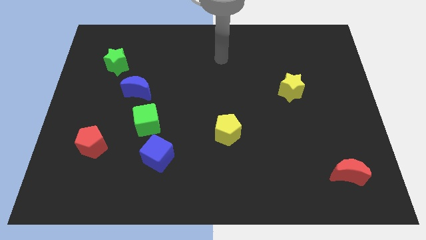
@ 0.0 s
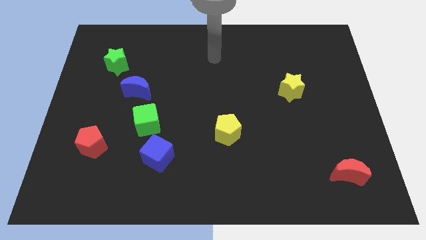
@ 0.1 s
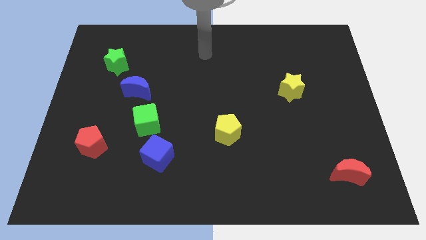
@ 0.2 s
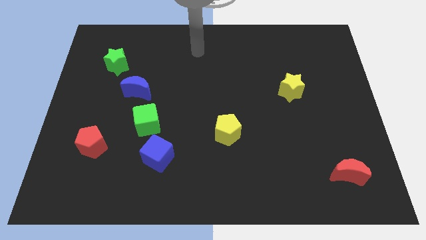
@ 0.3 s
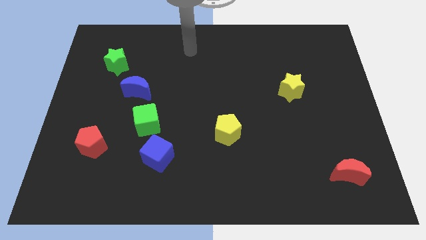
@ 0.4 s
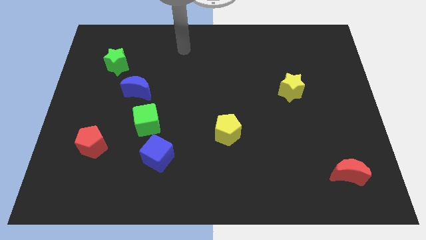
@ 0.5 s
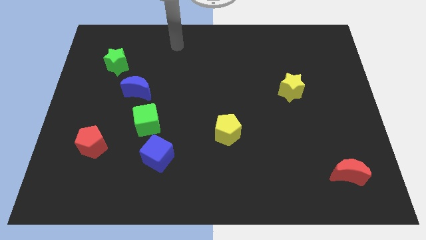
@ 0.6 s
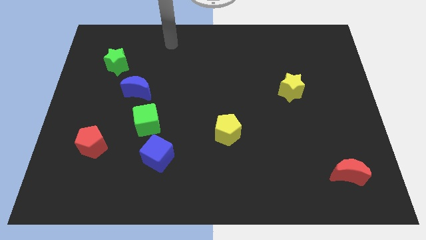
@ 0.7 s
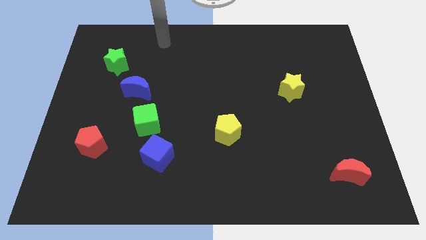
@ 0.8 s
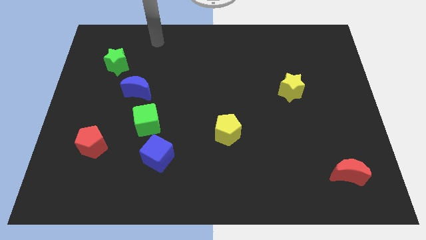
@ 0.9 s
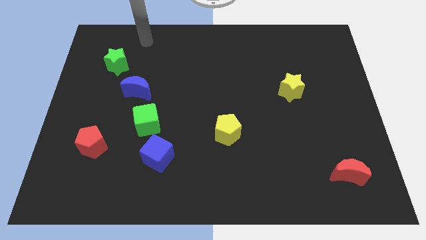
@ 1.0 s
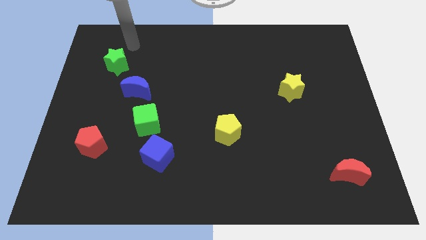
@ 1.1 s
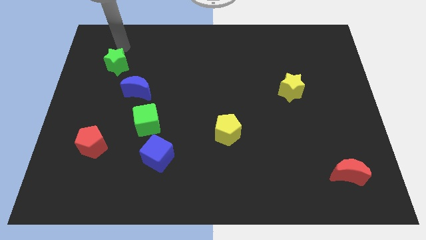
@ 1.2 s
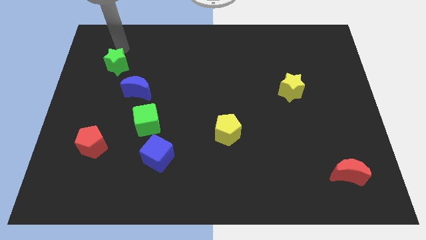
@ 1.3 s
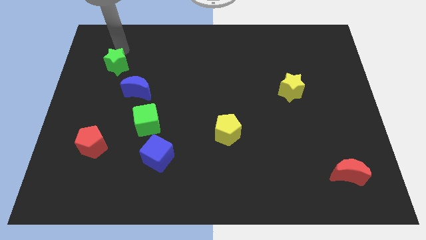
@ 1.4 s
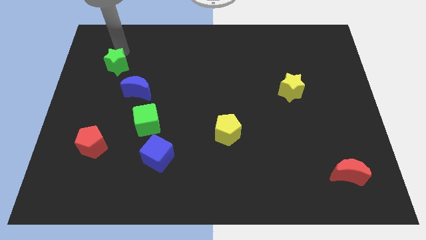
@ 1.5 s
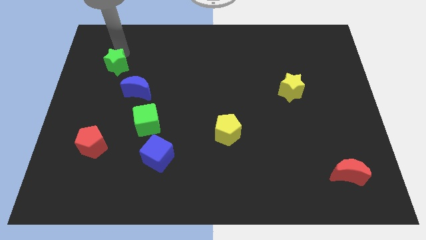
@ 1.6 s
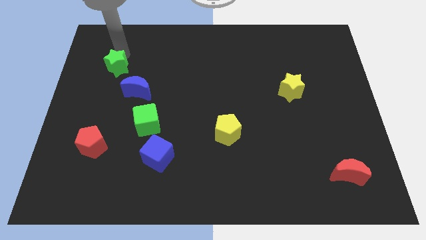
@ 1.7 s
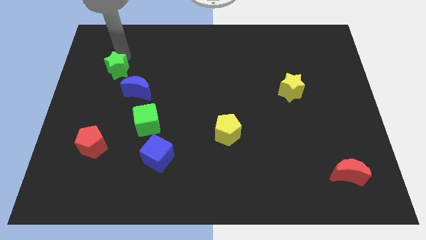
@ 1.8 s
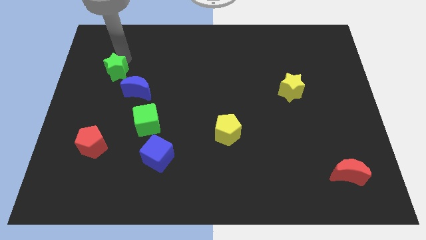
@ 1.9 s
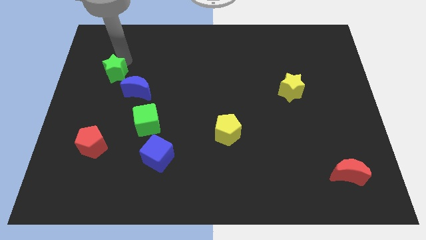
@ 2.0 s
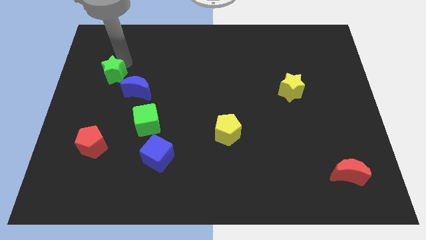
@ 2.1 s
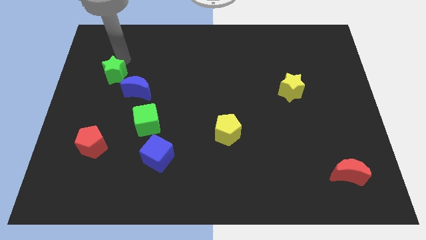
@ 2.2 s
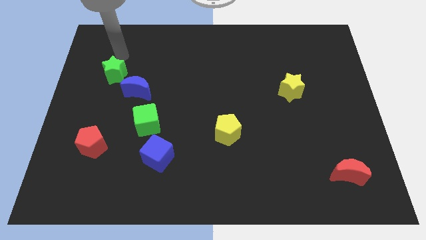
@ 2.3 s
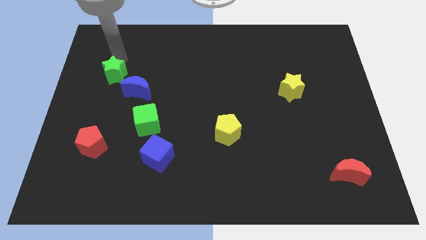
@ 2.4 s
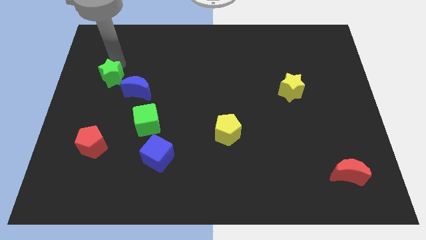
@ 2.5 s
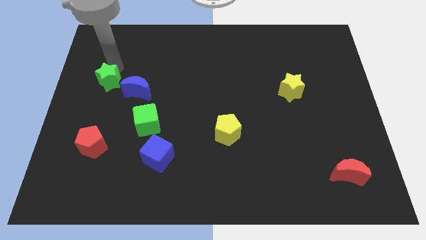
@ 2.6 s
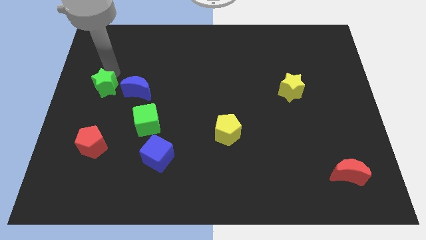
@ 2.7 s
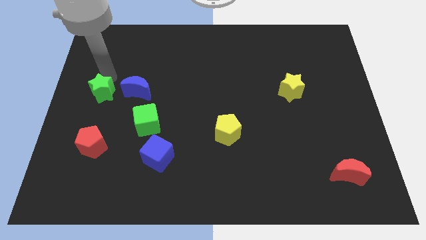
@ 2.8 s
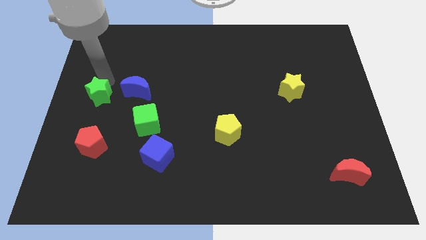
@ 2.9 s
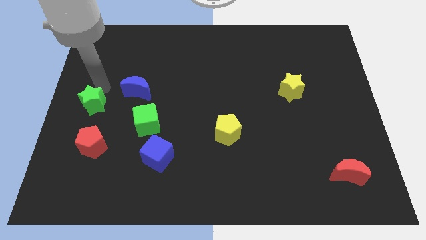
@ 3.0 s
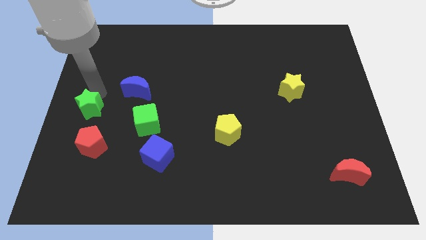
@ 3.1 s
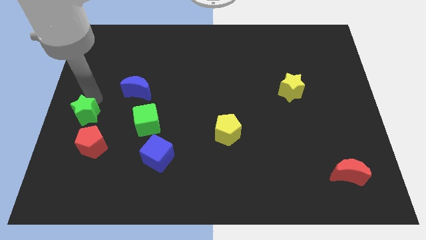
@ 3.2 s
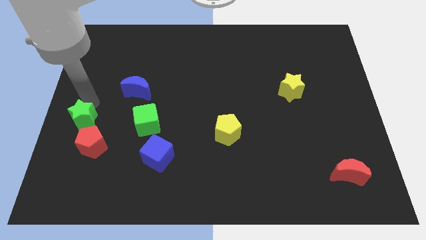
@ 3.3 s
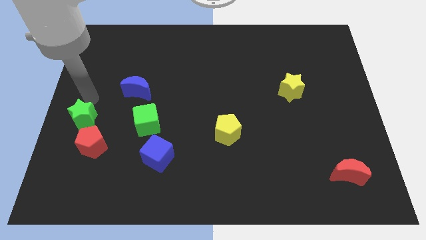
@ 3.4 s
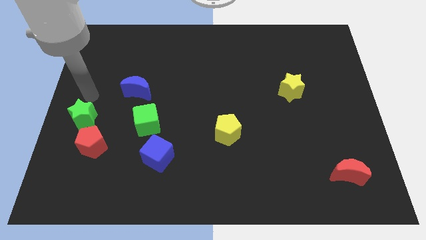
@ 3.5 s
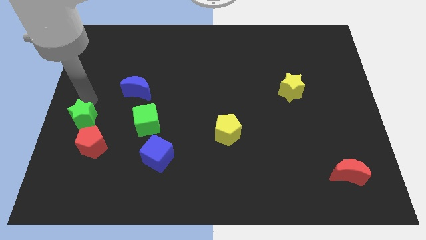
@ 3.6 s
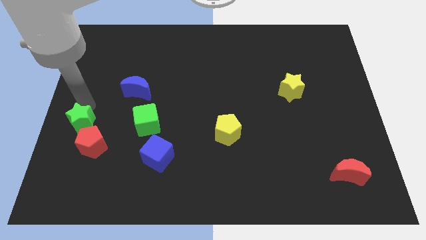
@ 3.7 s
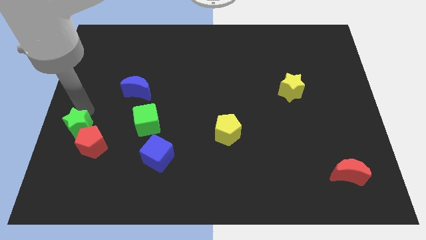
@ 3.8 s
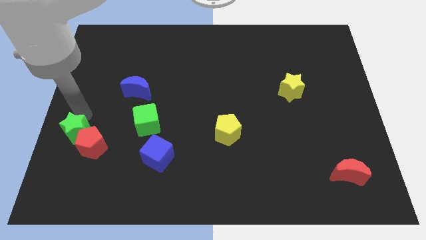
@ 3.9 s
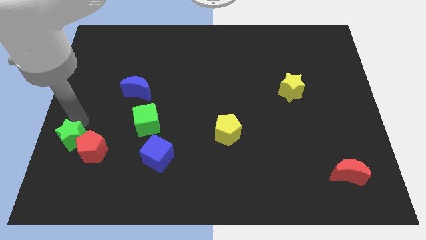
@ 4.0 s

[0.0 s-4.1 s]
move the green star downwards

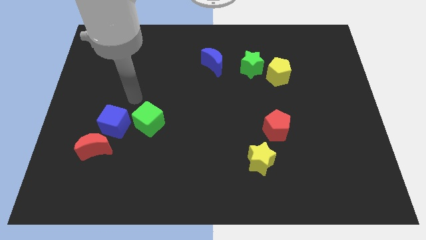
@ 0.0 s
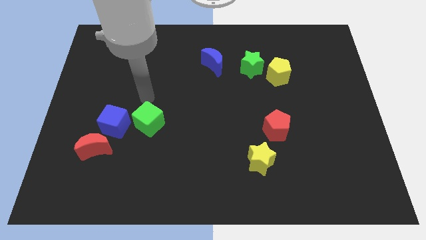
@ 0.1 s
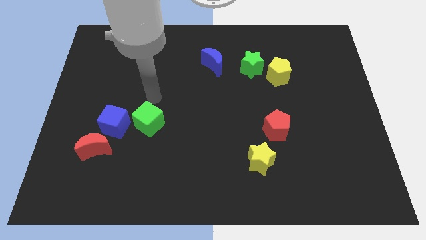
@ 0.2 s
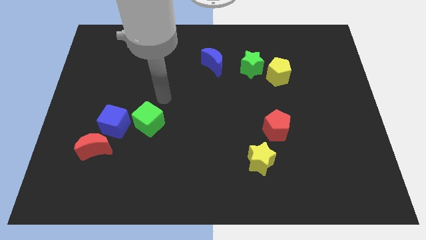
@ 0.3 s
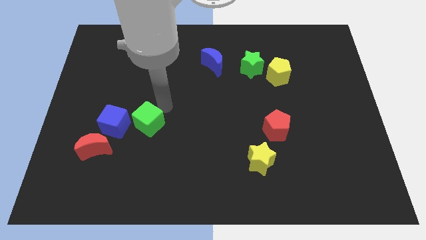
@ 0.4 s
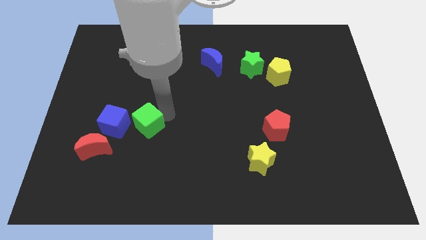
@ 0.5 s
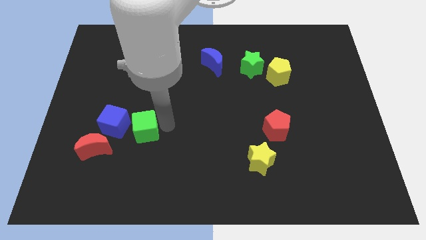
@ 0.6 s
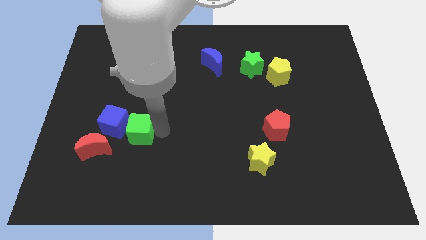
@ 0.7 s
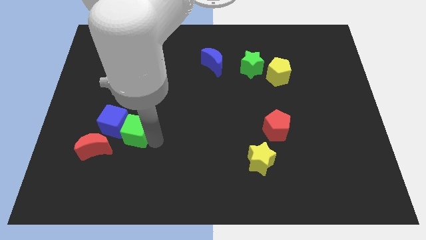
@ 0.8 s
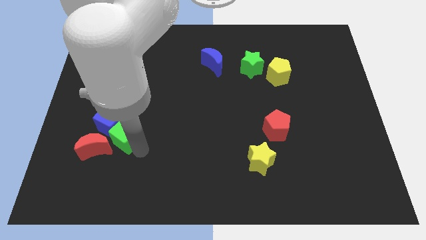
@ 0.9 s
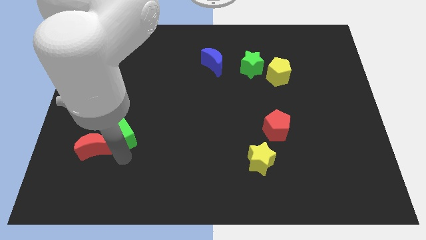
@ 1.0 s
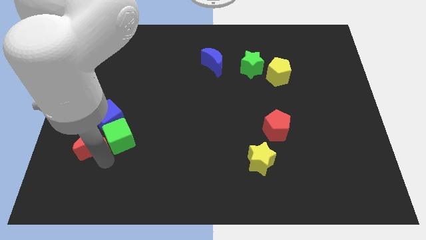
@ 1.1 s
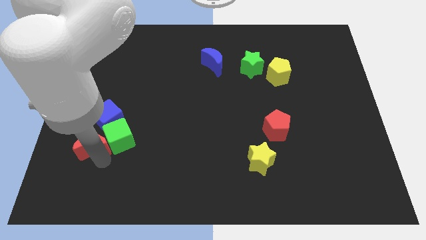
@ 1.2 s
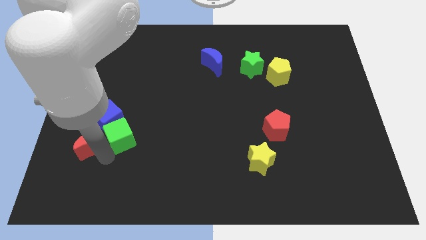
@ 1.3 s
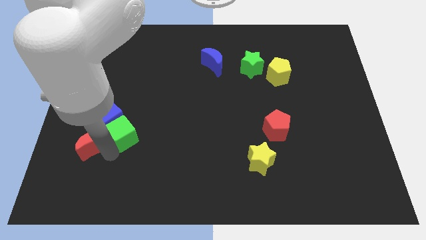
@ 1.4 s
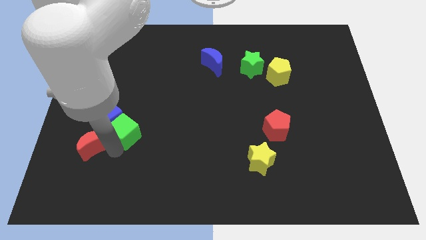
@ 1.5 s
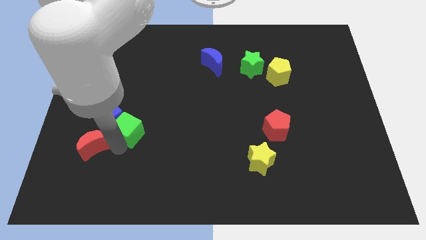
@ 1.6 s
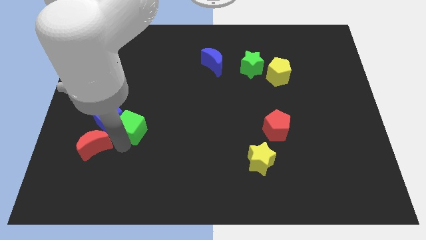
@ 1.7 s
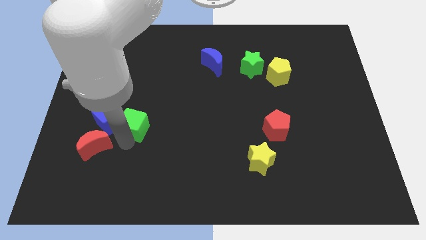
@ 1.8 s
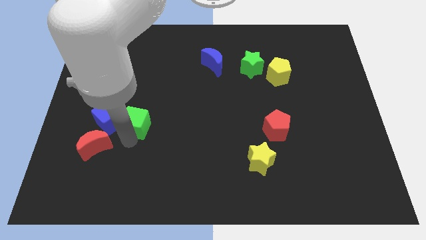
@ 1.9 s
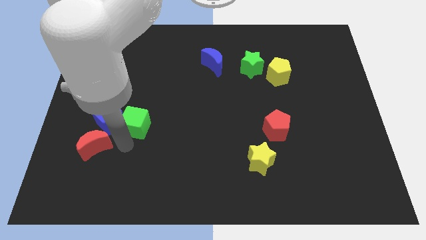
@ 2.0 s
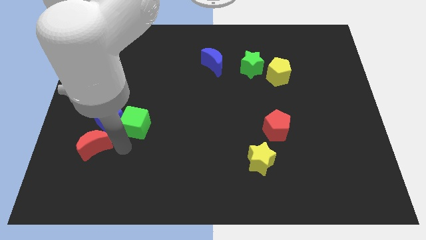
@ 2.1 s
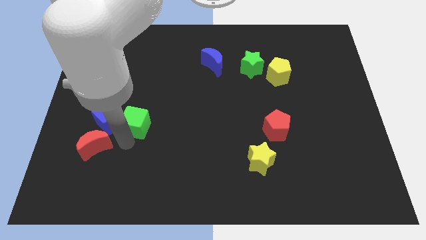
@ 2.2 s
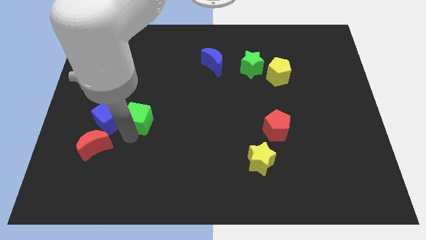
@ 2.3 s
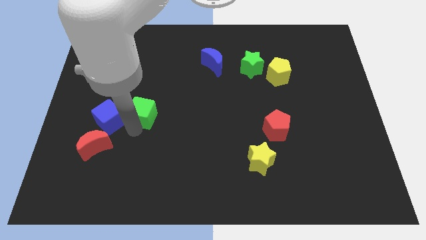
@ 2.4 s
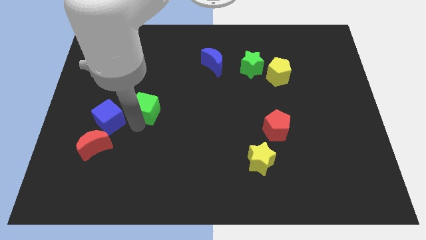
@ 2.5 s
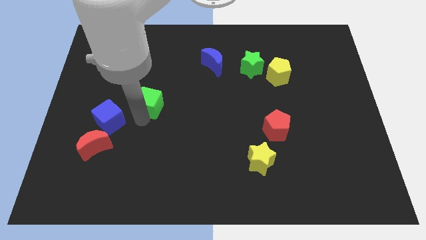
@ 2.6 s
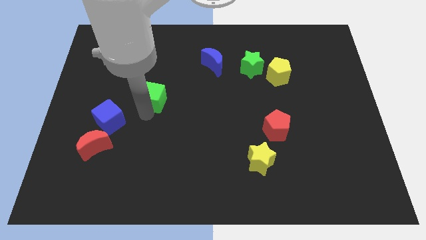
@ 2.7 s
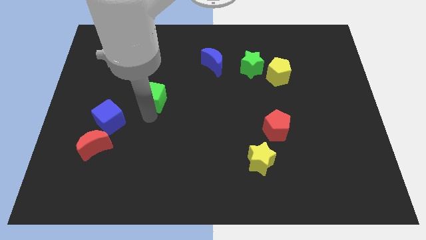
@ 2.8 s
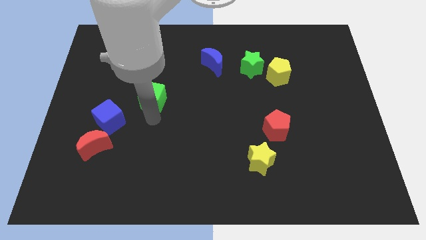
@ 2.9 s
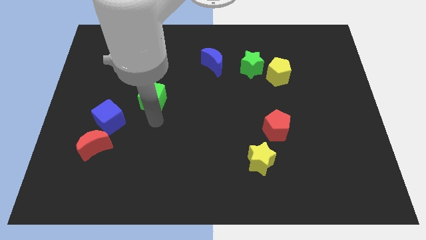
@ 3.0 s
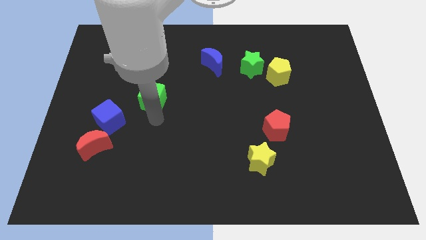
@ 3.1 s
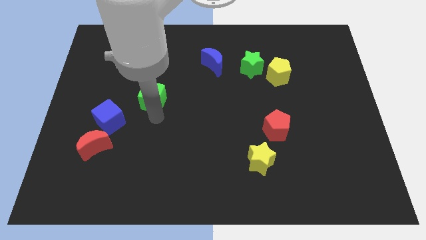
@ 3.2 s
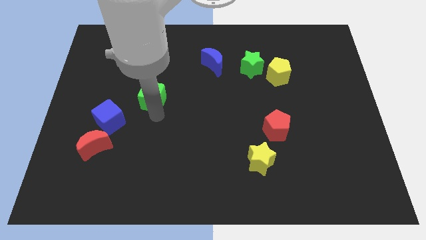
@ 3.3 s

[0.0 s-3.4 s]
push the green cube slightly up

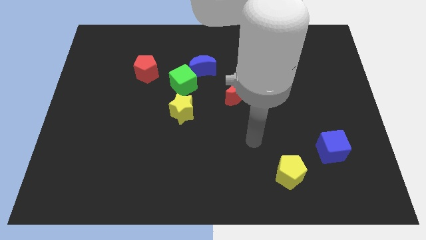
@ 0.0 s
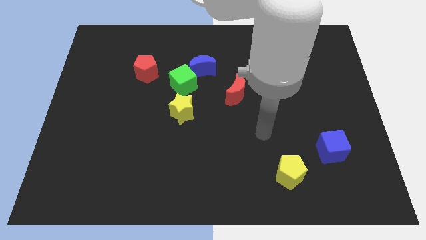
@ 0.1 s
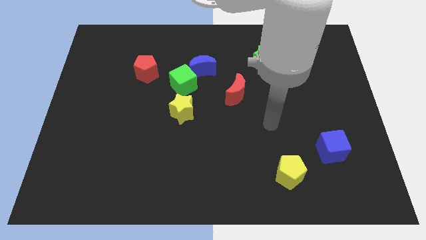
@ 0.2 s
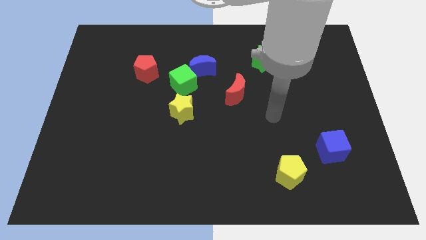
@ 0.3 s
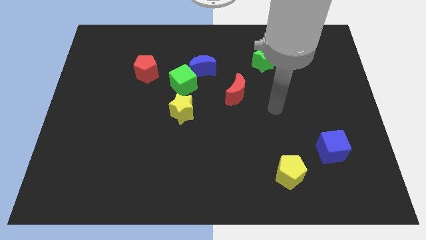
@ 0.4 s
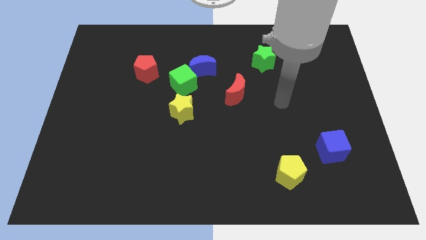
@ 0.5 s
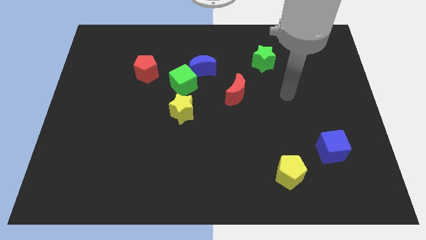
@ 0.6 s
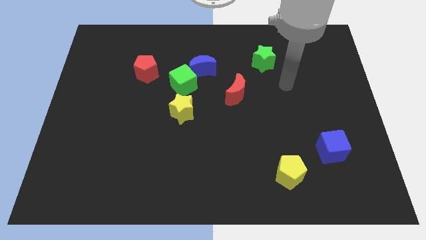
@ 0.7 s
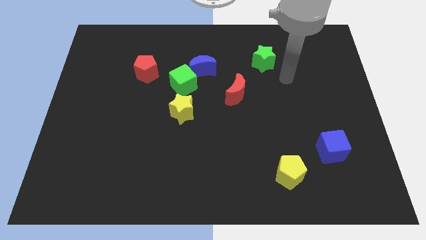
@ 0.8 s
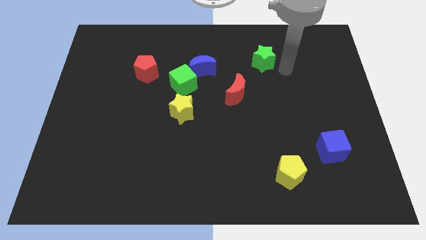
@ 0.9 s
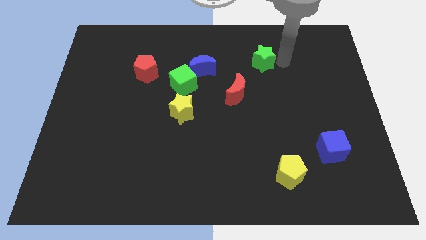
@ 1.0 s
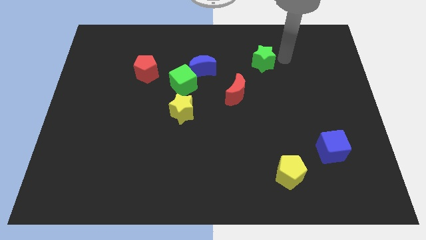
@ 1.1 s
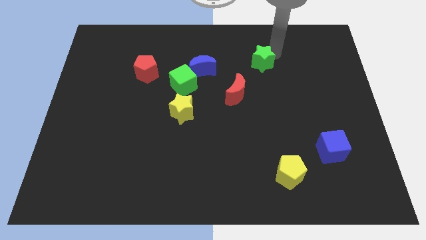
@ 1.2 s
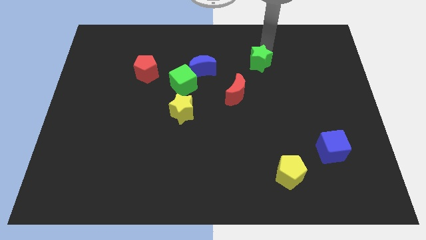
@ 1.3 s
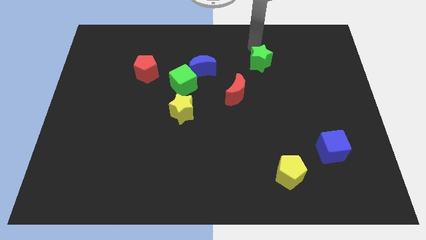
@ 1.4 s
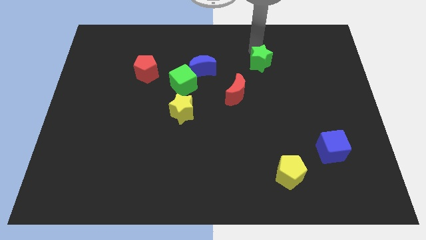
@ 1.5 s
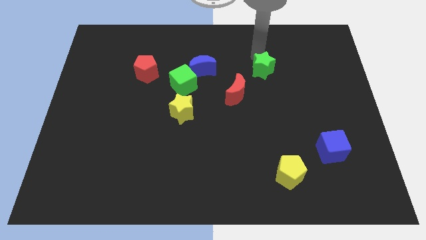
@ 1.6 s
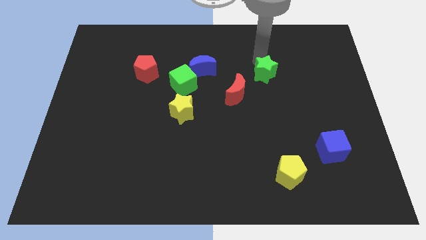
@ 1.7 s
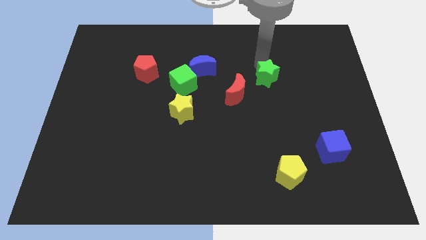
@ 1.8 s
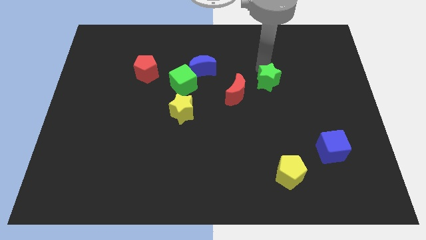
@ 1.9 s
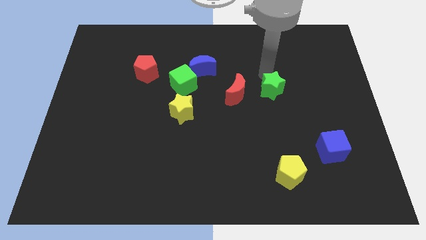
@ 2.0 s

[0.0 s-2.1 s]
push the green star down somewhat
